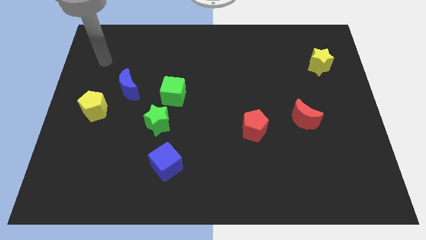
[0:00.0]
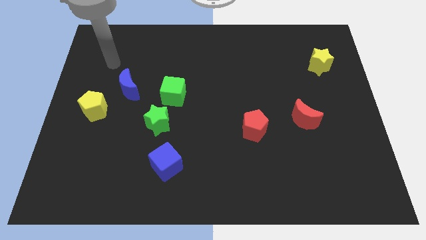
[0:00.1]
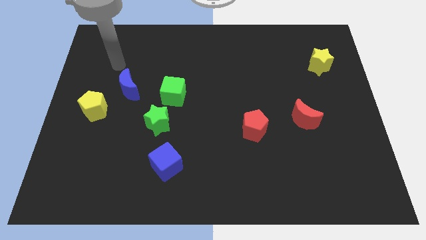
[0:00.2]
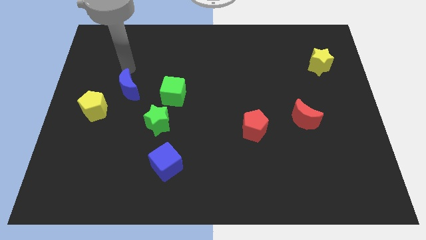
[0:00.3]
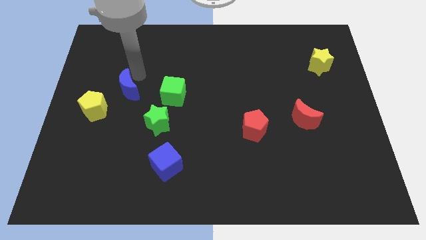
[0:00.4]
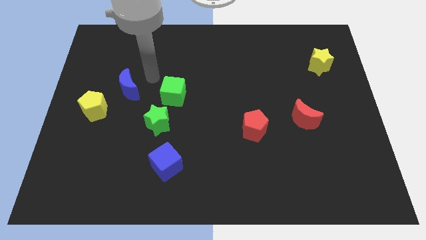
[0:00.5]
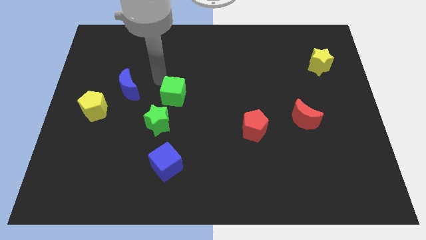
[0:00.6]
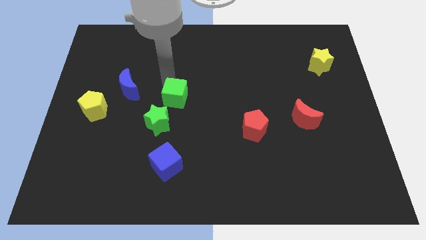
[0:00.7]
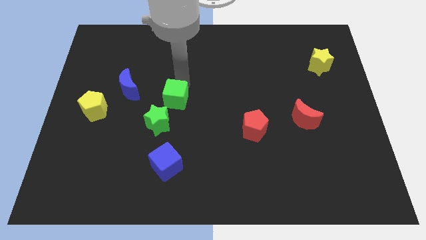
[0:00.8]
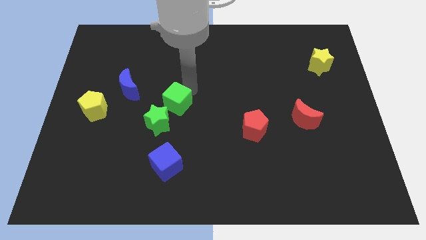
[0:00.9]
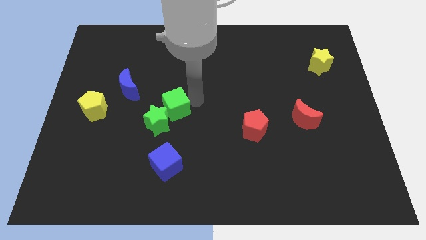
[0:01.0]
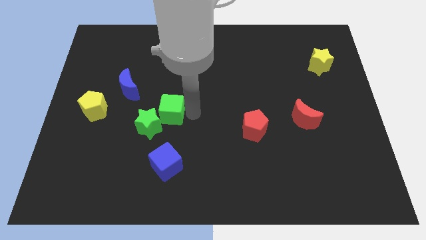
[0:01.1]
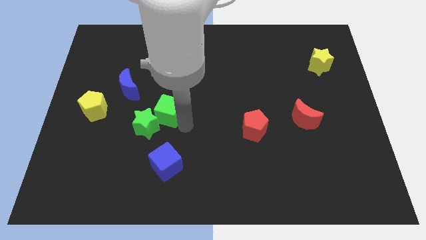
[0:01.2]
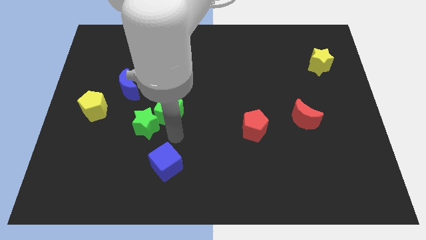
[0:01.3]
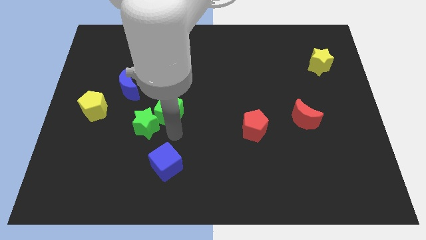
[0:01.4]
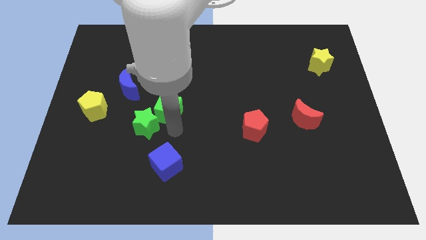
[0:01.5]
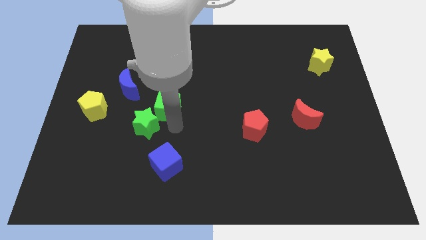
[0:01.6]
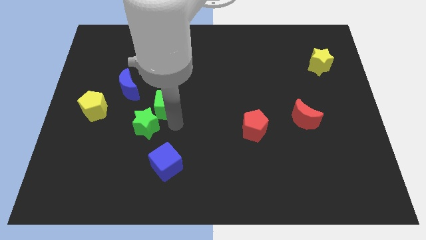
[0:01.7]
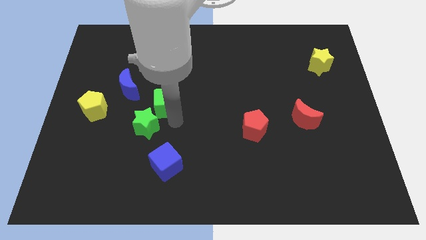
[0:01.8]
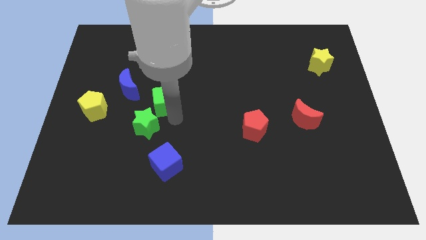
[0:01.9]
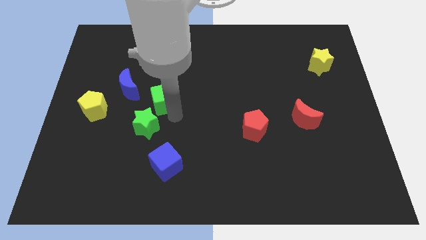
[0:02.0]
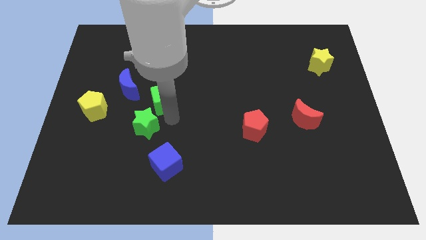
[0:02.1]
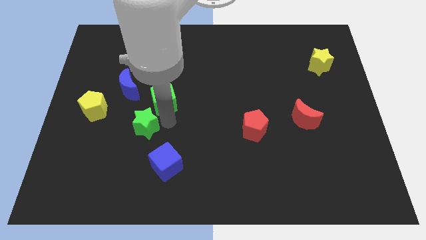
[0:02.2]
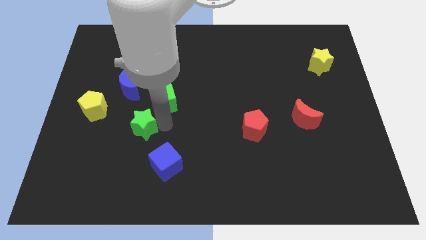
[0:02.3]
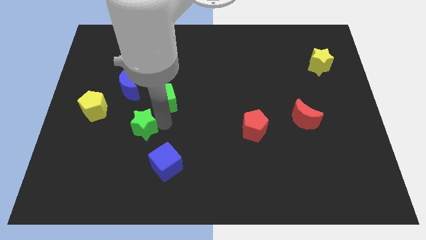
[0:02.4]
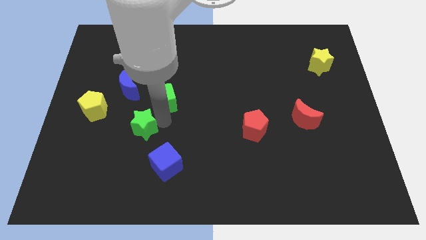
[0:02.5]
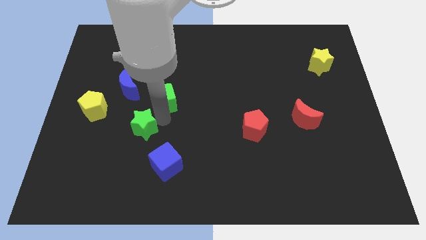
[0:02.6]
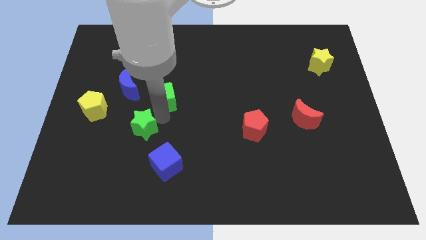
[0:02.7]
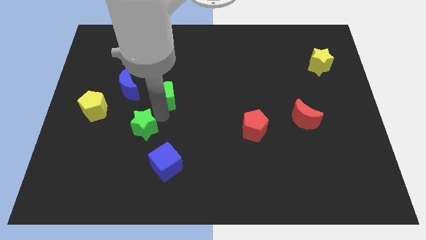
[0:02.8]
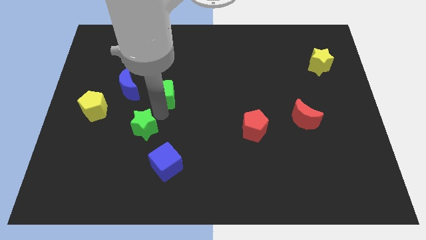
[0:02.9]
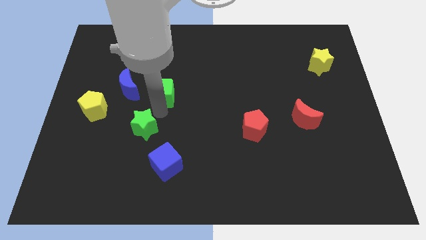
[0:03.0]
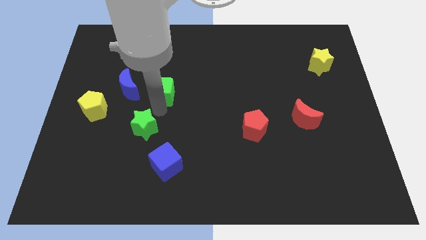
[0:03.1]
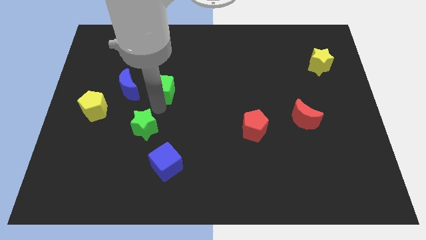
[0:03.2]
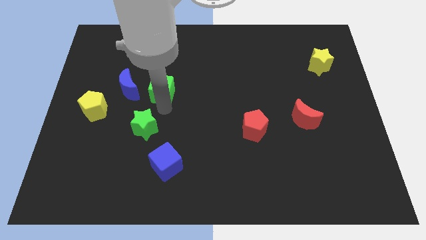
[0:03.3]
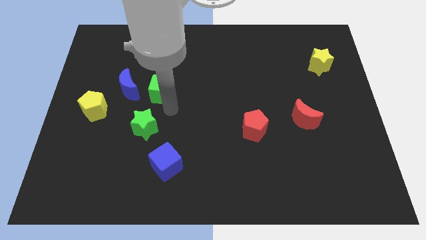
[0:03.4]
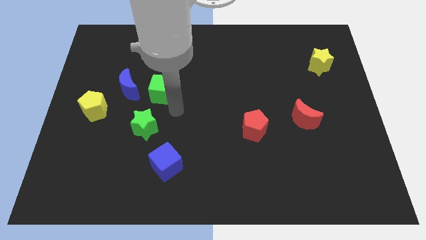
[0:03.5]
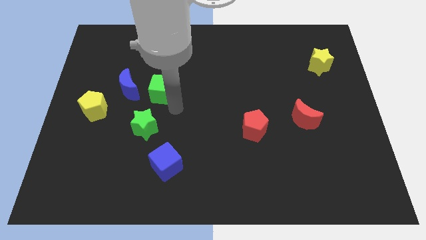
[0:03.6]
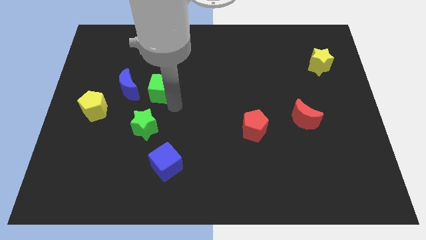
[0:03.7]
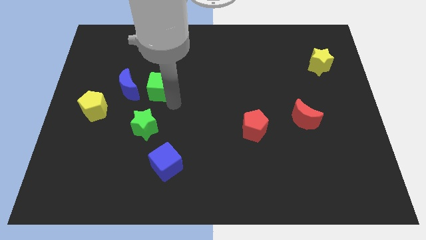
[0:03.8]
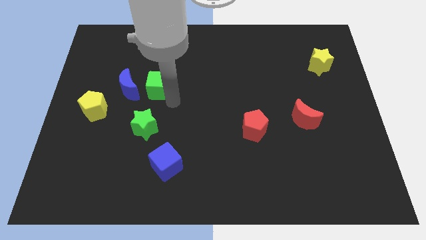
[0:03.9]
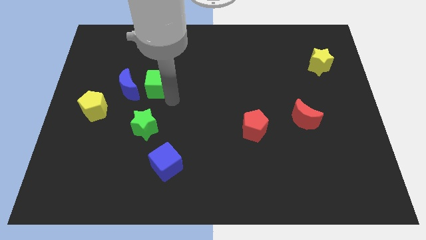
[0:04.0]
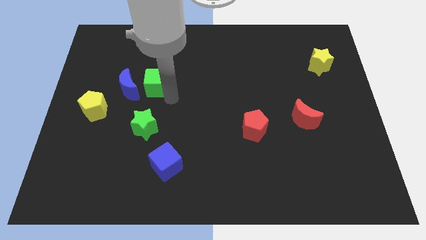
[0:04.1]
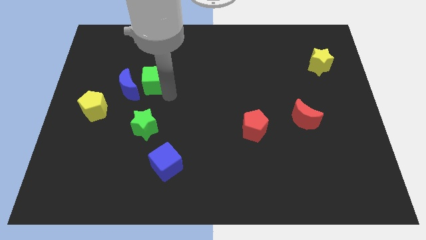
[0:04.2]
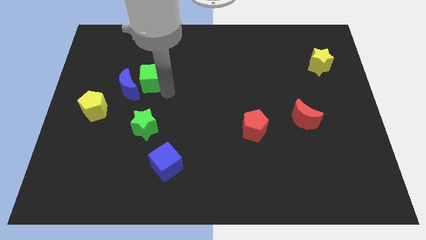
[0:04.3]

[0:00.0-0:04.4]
move the green cube up and then left somewhat

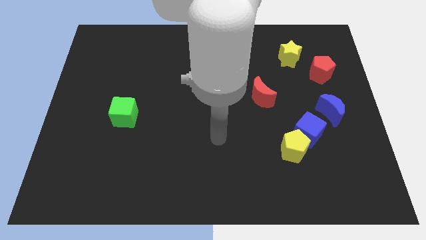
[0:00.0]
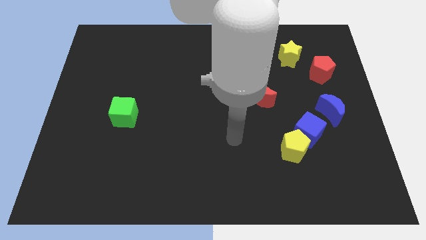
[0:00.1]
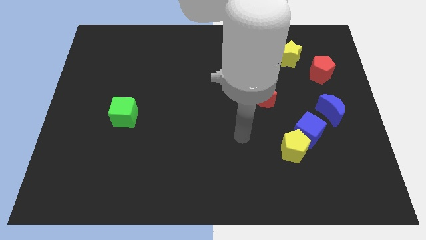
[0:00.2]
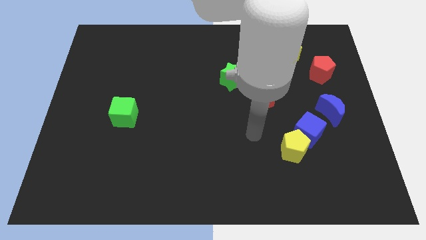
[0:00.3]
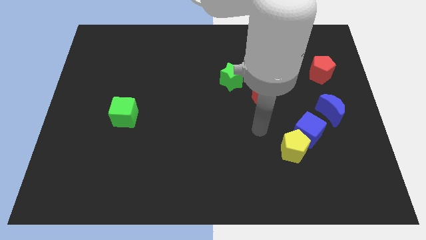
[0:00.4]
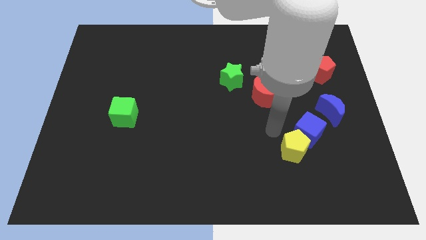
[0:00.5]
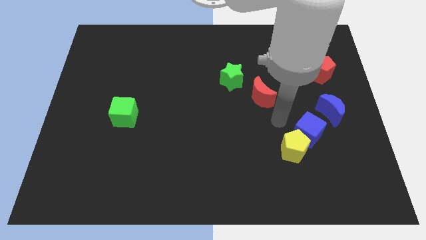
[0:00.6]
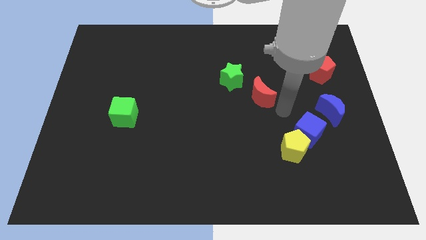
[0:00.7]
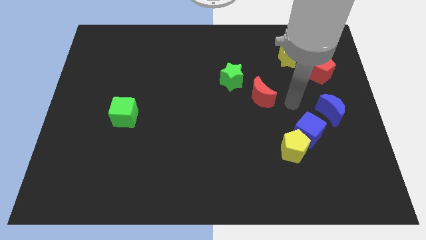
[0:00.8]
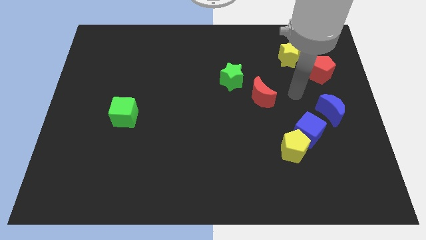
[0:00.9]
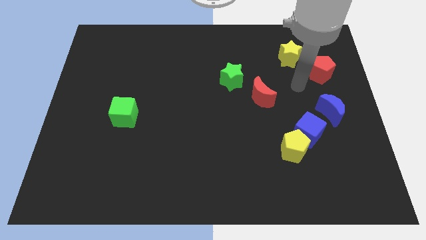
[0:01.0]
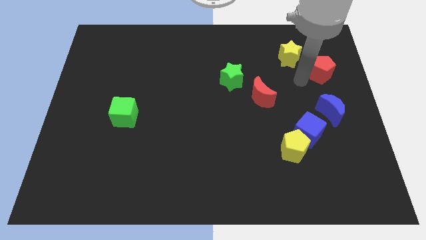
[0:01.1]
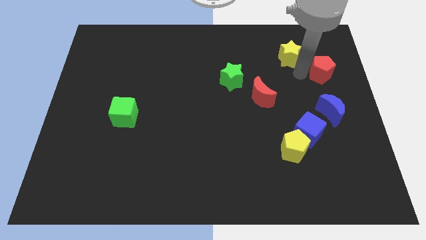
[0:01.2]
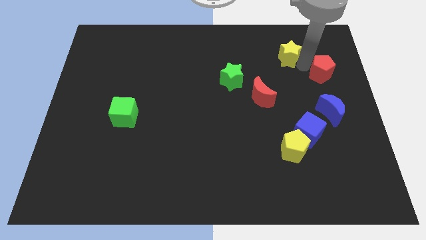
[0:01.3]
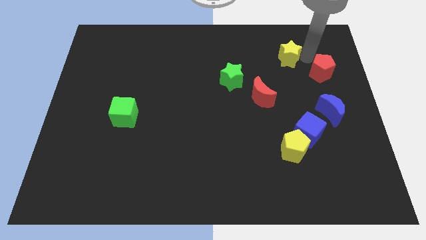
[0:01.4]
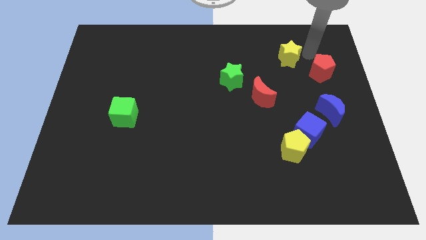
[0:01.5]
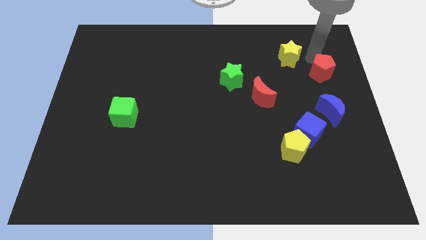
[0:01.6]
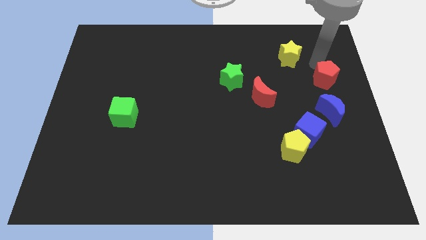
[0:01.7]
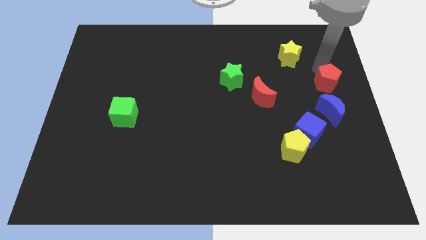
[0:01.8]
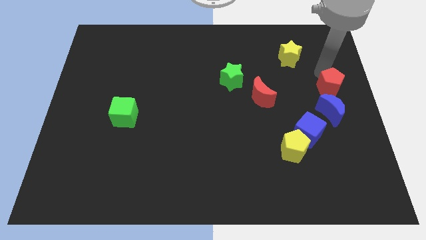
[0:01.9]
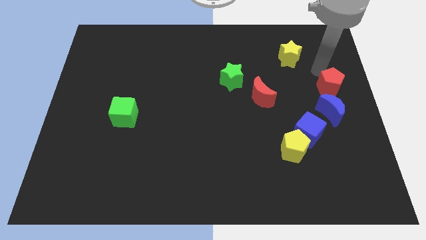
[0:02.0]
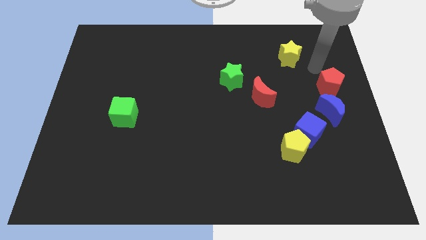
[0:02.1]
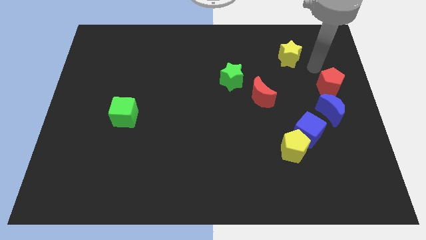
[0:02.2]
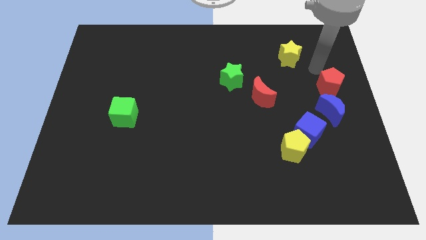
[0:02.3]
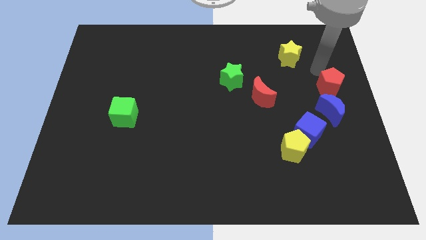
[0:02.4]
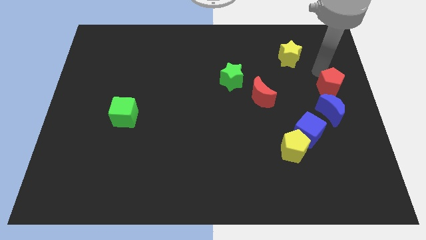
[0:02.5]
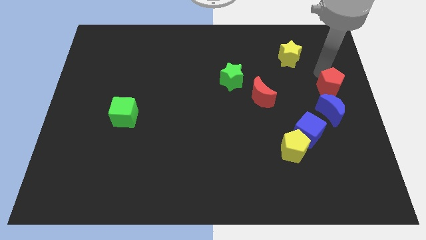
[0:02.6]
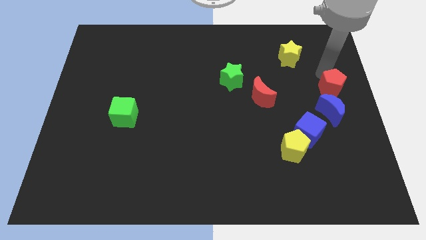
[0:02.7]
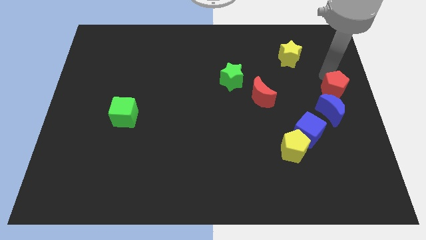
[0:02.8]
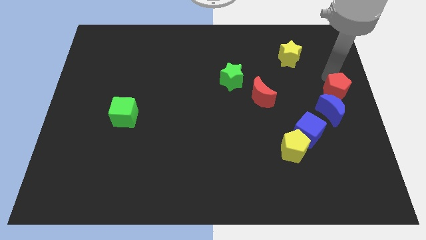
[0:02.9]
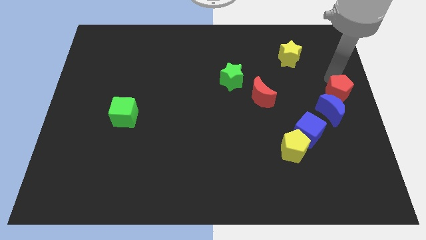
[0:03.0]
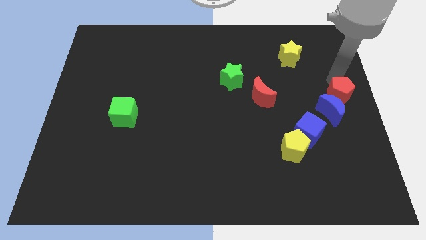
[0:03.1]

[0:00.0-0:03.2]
slightly move the red pentagon down

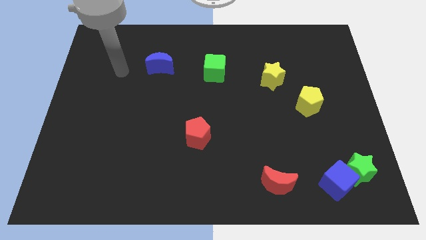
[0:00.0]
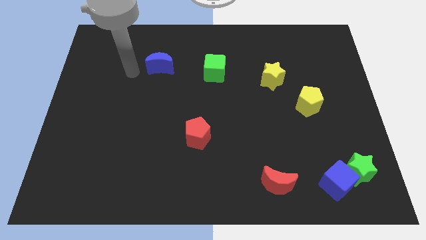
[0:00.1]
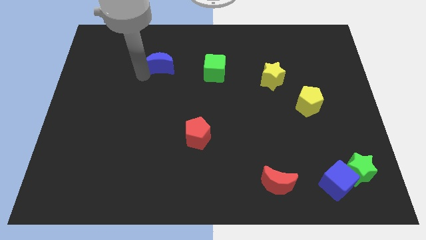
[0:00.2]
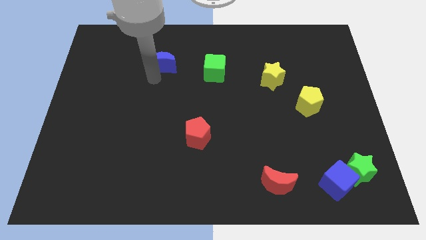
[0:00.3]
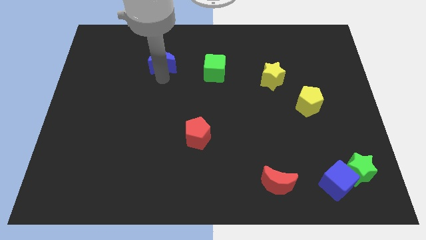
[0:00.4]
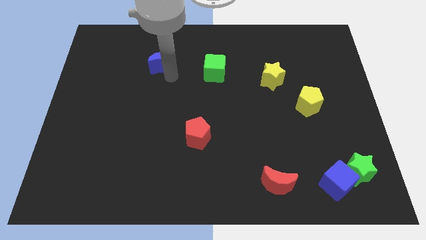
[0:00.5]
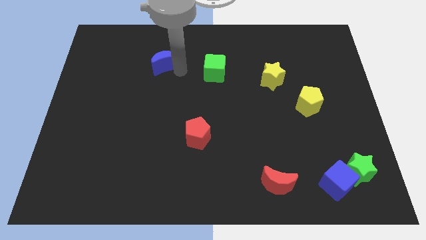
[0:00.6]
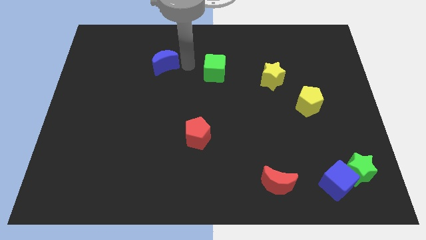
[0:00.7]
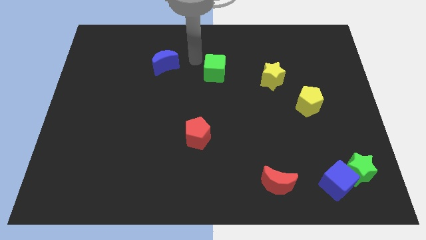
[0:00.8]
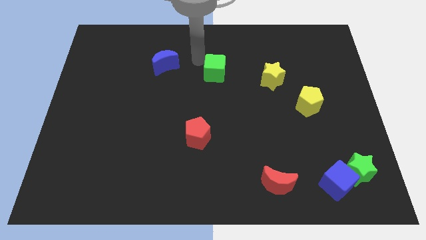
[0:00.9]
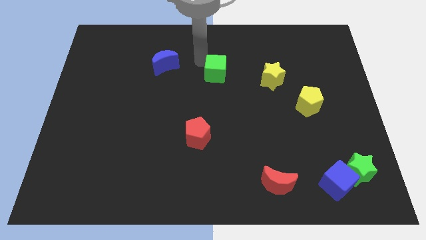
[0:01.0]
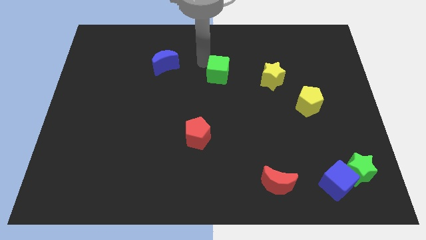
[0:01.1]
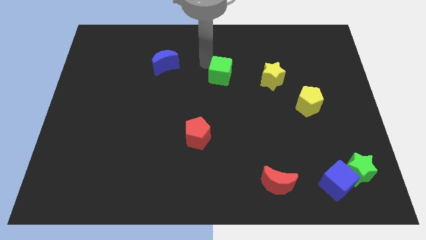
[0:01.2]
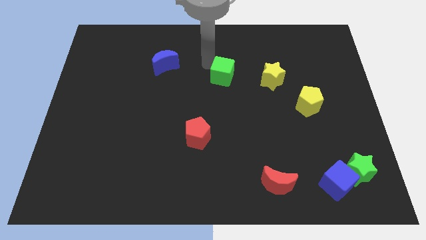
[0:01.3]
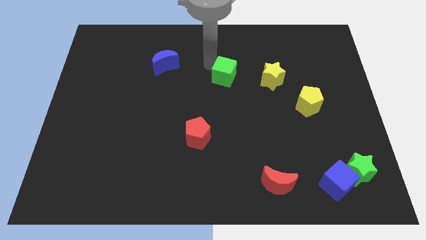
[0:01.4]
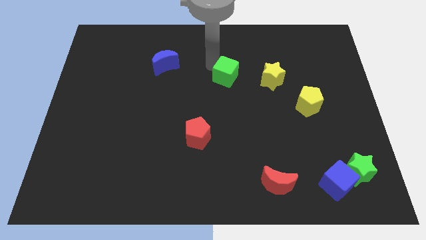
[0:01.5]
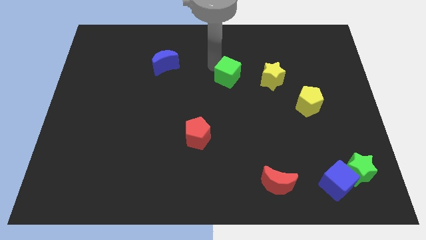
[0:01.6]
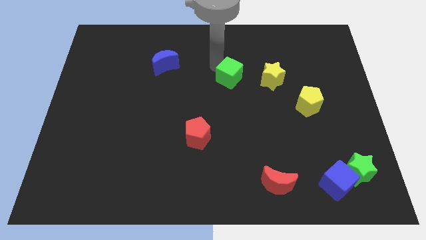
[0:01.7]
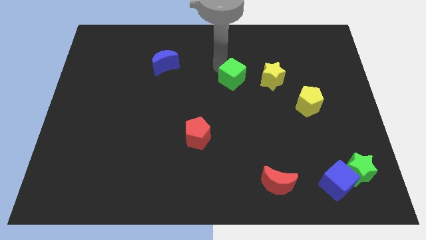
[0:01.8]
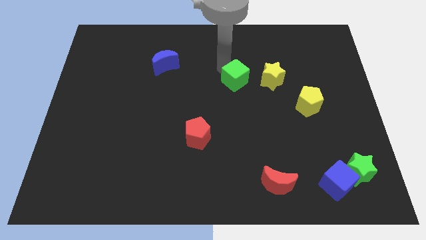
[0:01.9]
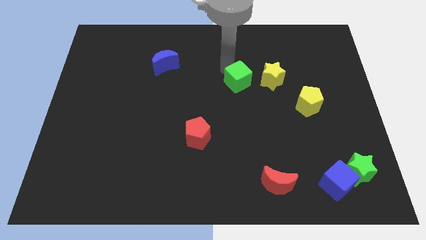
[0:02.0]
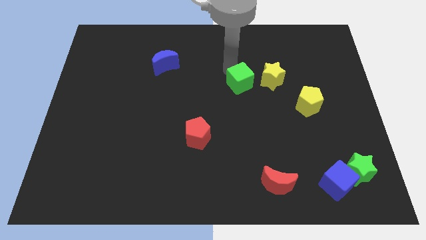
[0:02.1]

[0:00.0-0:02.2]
slightly slide the green cube down and then to the right
